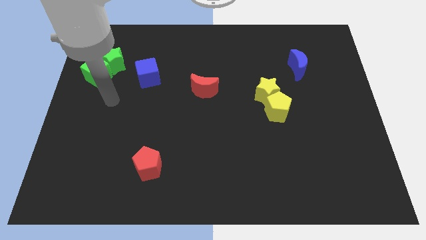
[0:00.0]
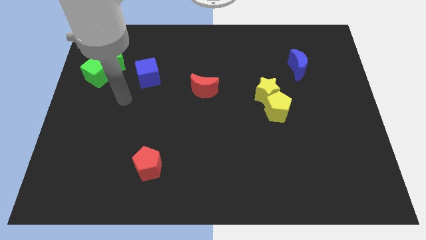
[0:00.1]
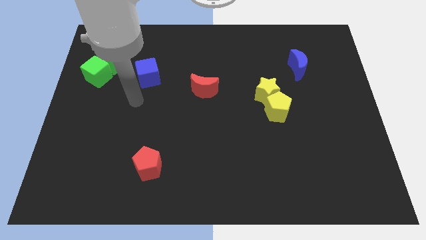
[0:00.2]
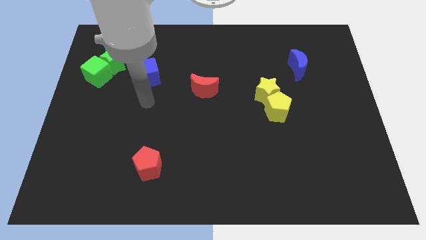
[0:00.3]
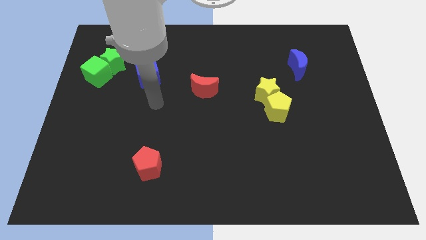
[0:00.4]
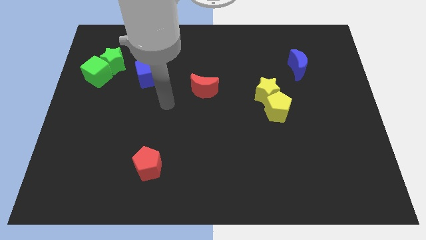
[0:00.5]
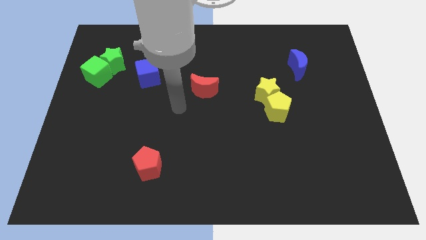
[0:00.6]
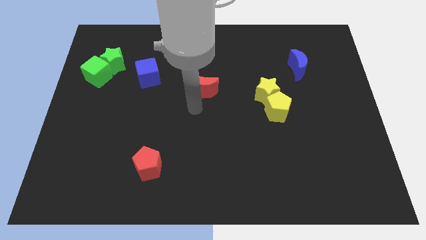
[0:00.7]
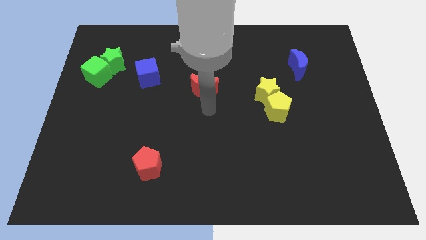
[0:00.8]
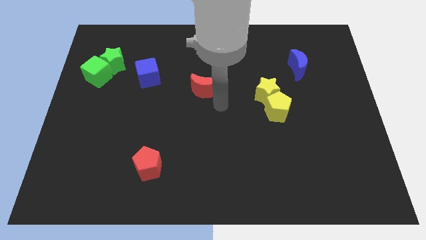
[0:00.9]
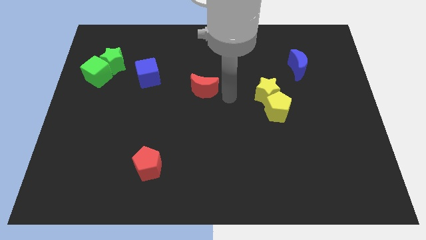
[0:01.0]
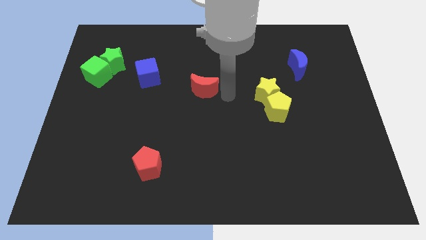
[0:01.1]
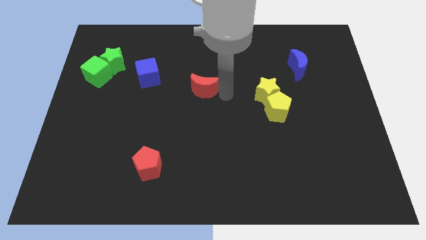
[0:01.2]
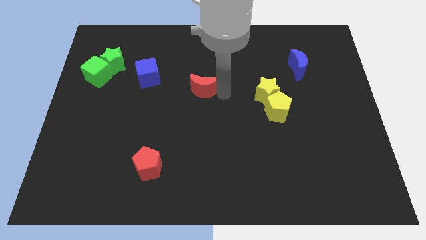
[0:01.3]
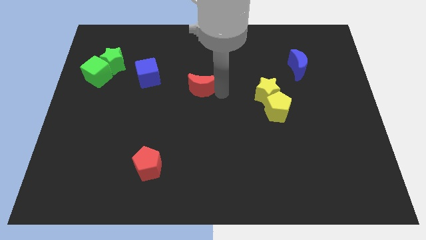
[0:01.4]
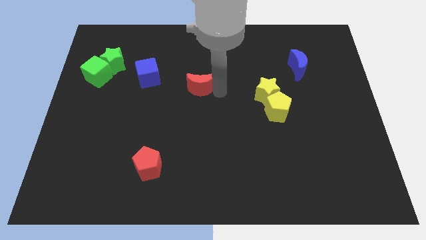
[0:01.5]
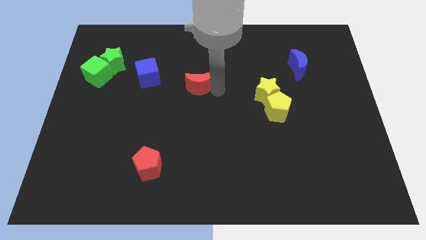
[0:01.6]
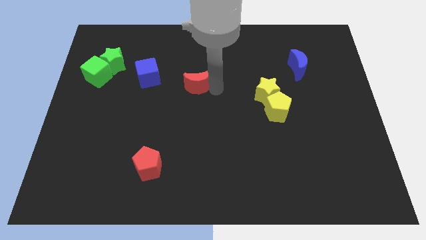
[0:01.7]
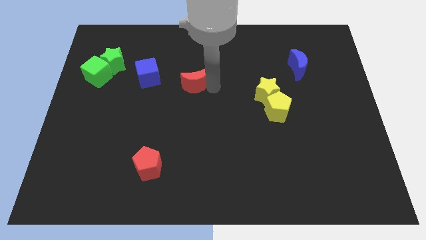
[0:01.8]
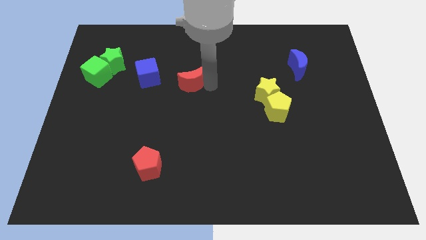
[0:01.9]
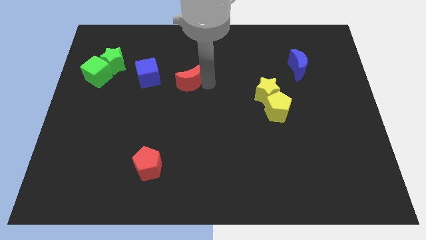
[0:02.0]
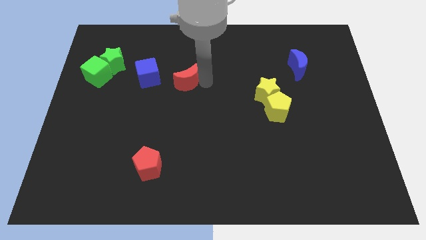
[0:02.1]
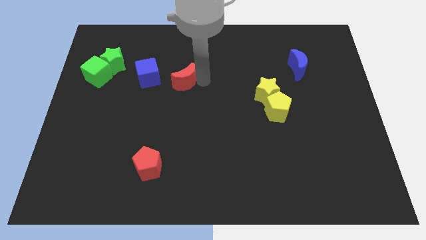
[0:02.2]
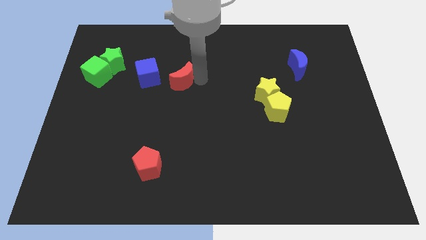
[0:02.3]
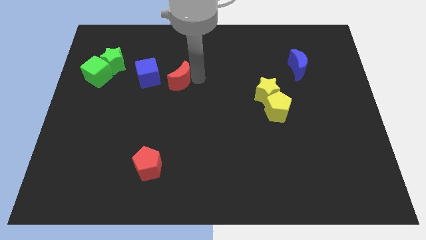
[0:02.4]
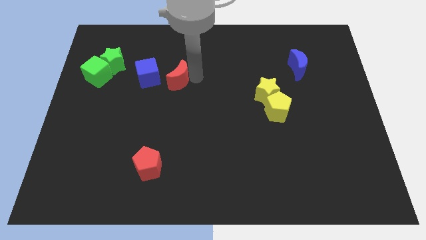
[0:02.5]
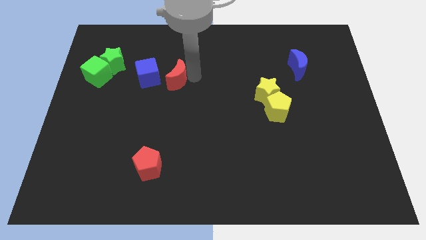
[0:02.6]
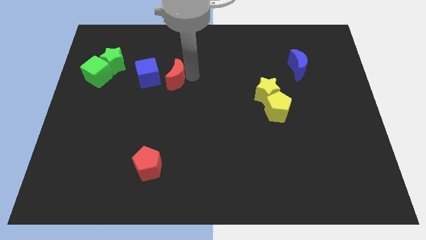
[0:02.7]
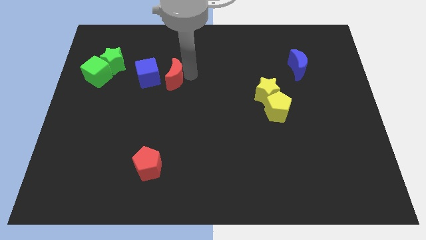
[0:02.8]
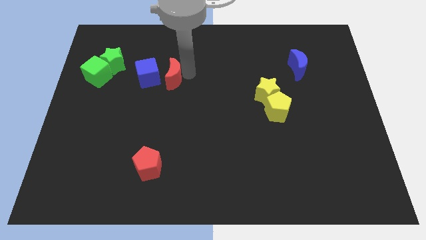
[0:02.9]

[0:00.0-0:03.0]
slightly move the red moon left

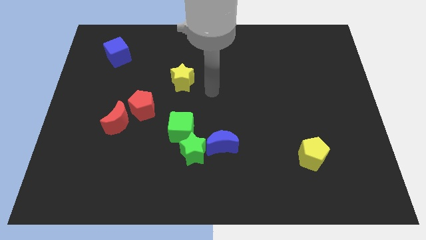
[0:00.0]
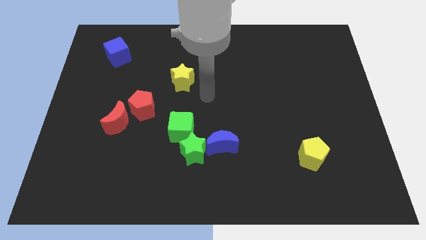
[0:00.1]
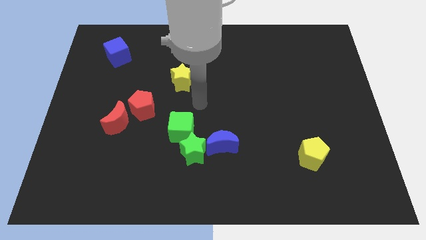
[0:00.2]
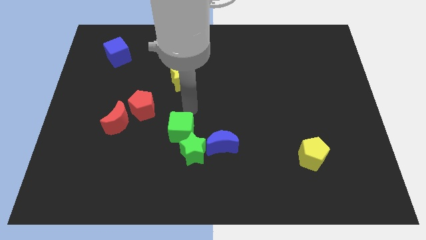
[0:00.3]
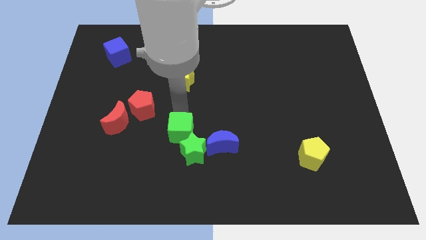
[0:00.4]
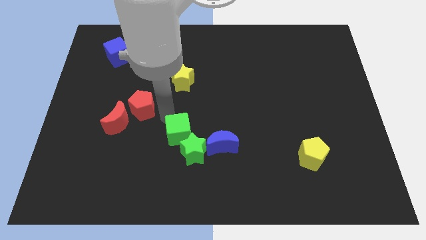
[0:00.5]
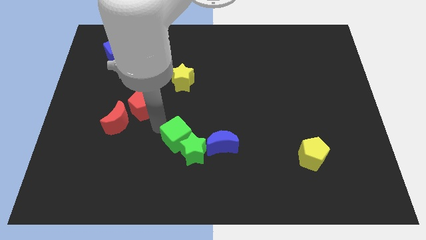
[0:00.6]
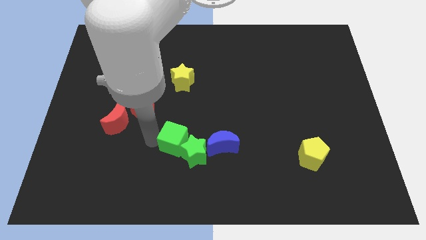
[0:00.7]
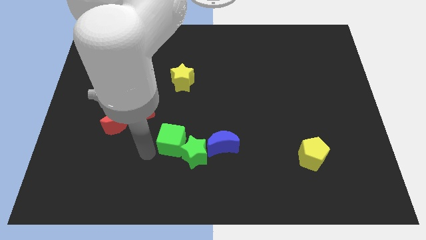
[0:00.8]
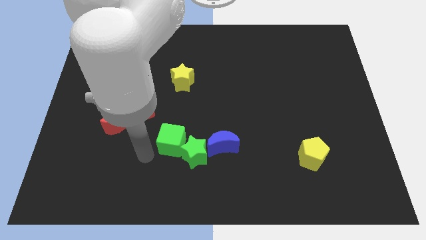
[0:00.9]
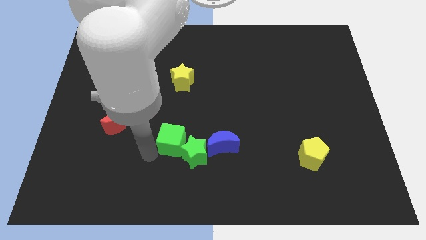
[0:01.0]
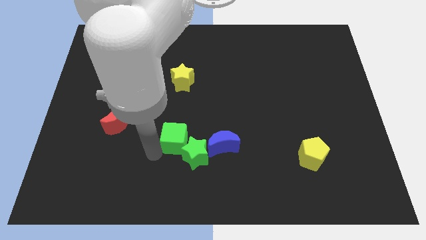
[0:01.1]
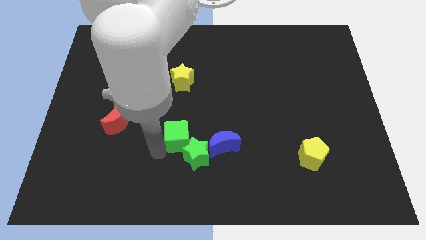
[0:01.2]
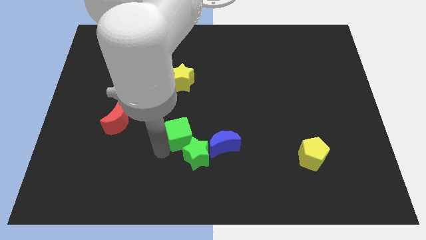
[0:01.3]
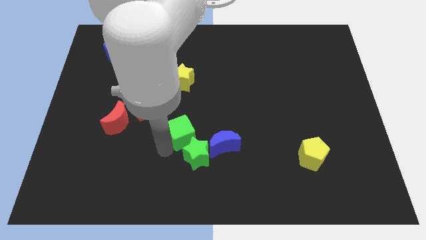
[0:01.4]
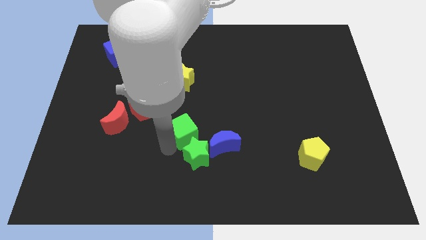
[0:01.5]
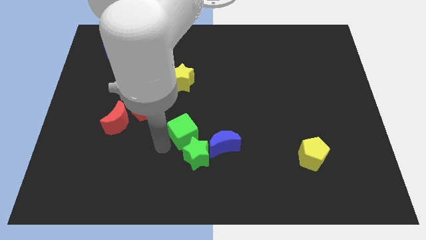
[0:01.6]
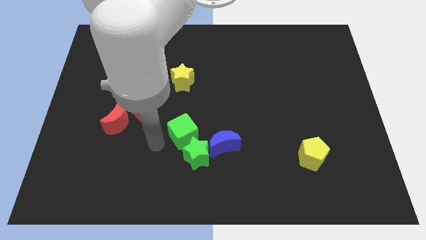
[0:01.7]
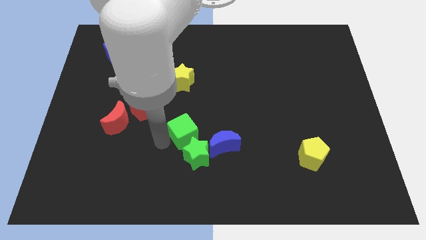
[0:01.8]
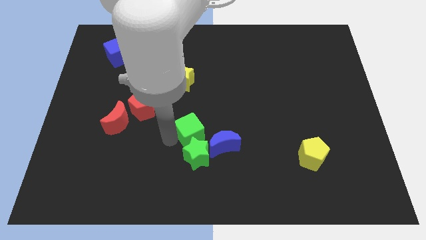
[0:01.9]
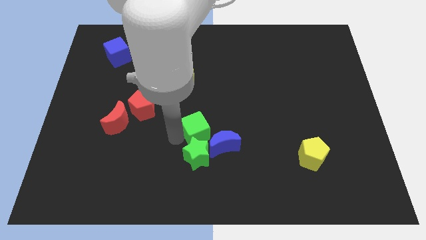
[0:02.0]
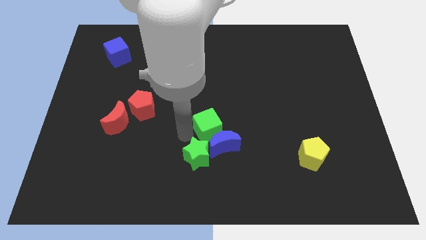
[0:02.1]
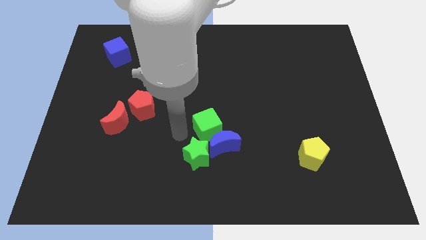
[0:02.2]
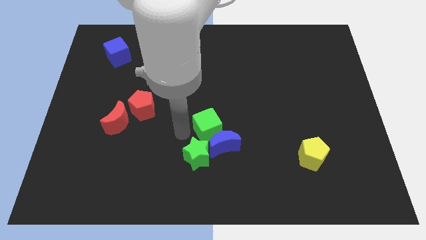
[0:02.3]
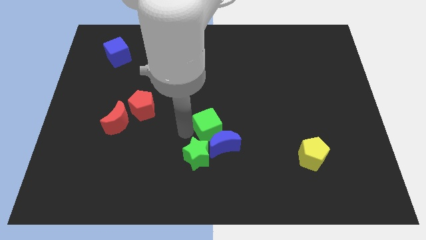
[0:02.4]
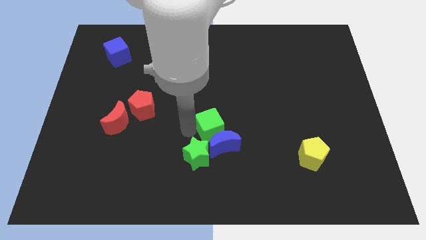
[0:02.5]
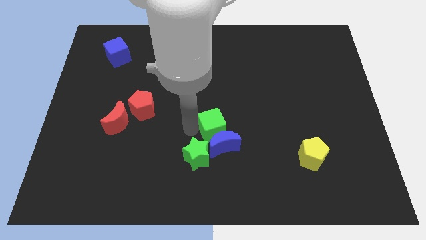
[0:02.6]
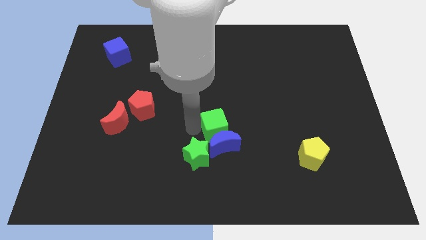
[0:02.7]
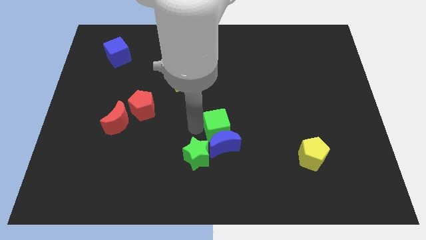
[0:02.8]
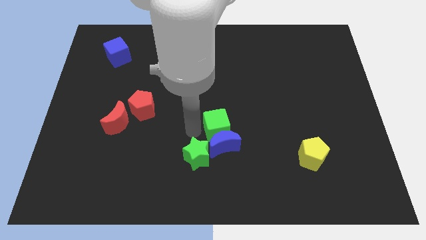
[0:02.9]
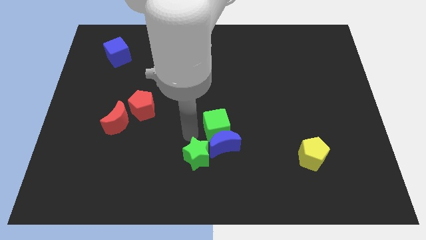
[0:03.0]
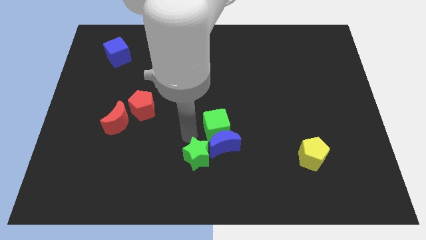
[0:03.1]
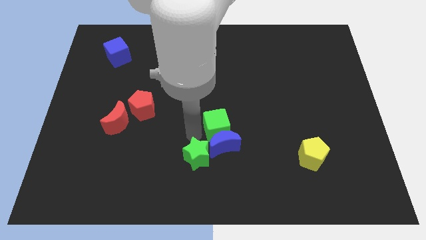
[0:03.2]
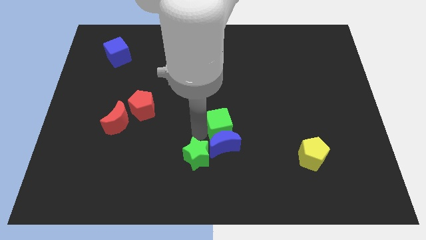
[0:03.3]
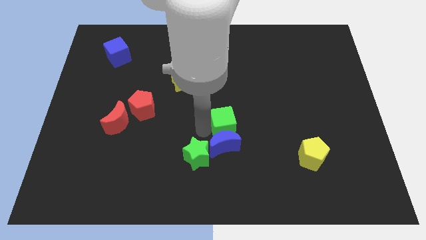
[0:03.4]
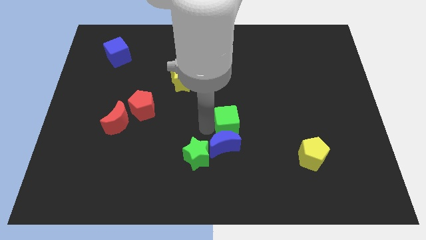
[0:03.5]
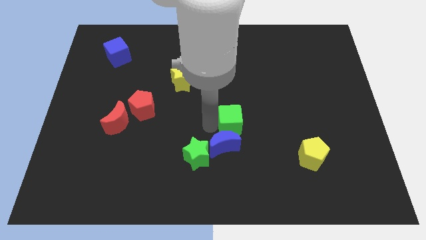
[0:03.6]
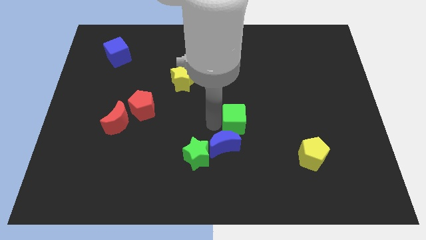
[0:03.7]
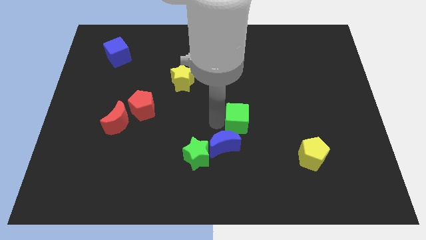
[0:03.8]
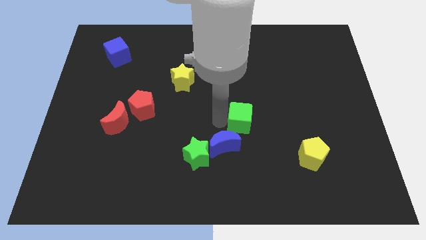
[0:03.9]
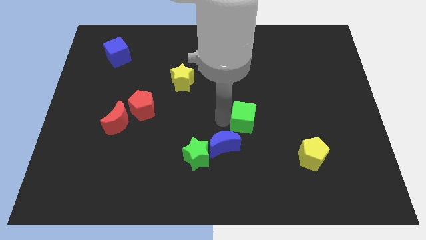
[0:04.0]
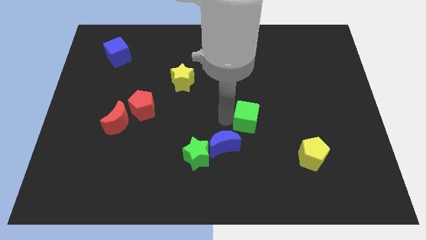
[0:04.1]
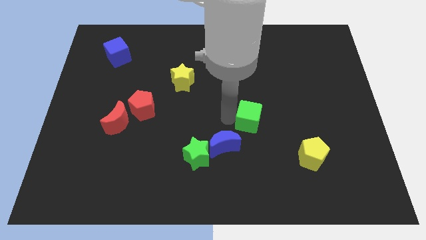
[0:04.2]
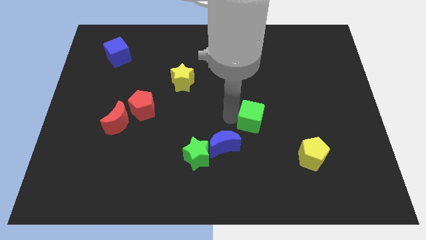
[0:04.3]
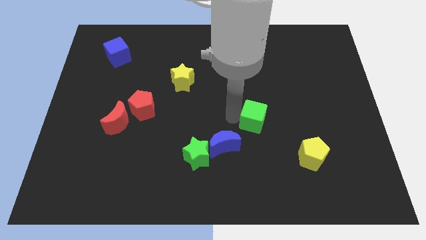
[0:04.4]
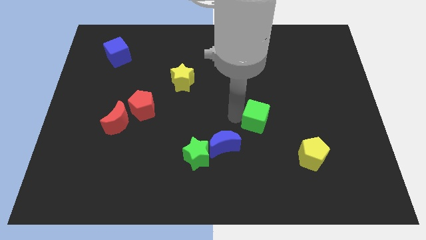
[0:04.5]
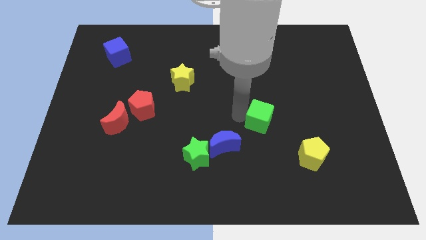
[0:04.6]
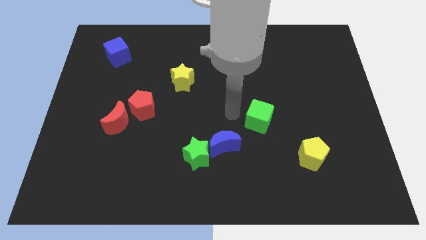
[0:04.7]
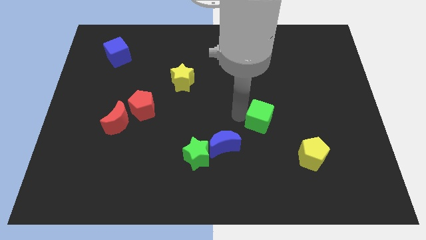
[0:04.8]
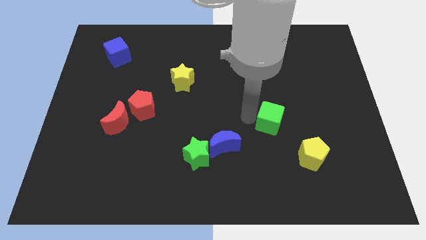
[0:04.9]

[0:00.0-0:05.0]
push the green cube to the right

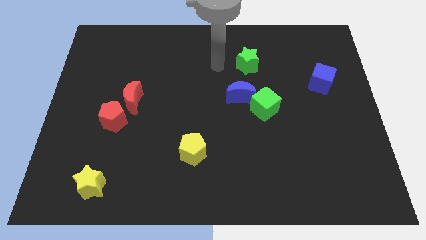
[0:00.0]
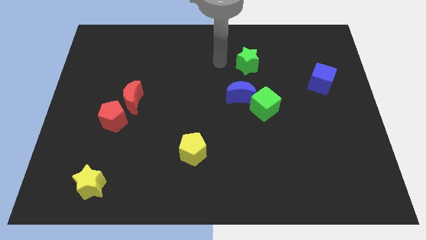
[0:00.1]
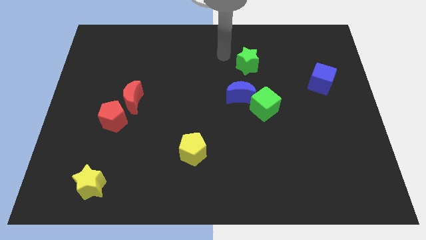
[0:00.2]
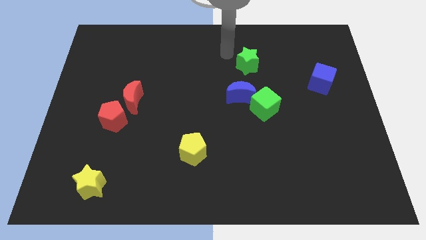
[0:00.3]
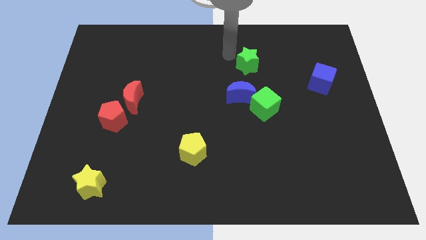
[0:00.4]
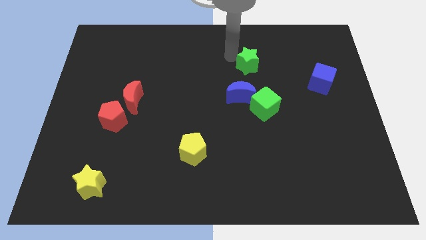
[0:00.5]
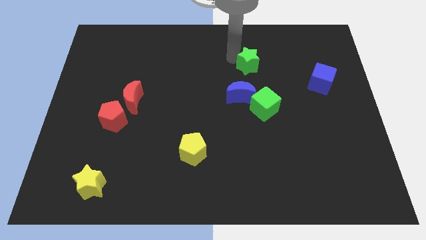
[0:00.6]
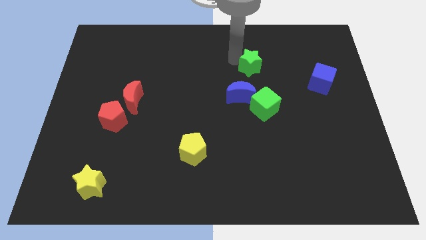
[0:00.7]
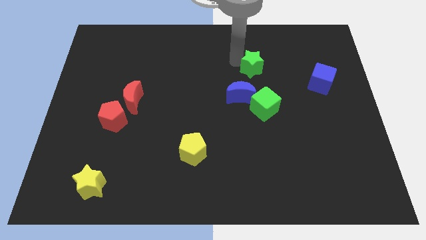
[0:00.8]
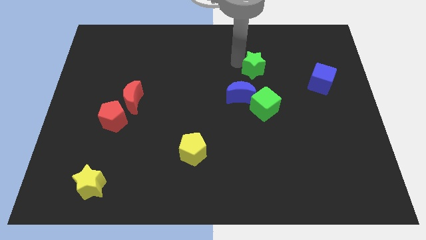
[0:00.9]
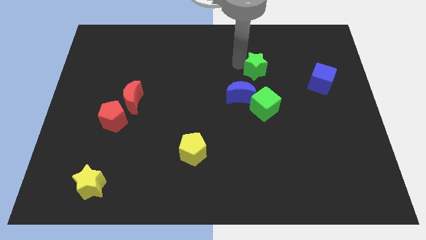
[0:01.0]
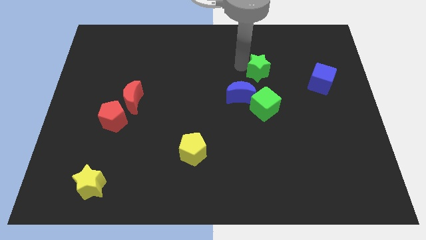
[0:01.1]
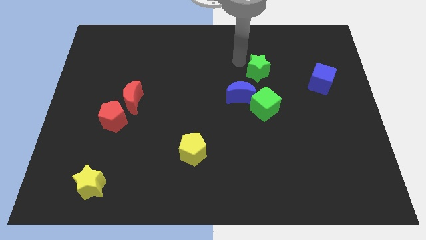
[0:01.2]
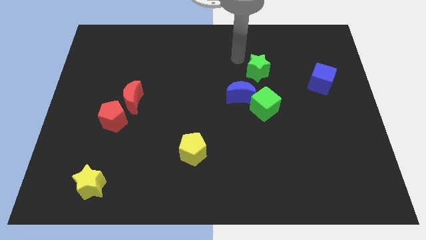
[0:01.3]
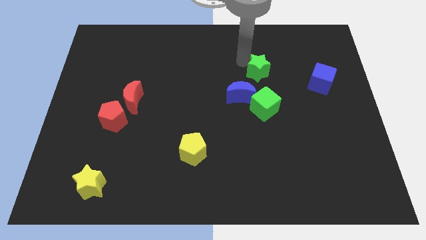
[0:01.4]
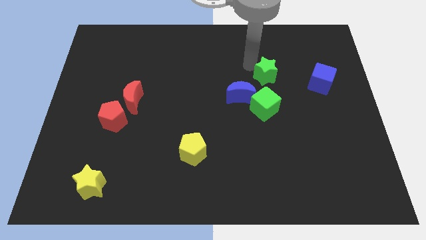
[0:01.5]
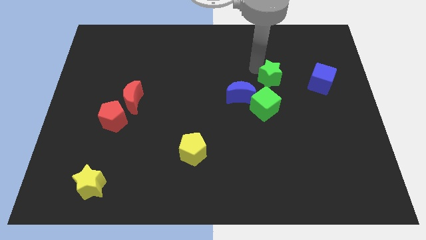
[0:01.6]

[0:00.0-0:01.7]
slide the green star a bit downwards and right diagonally
